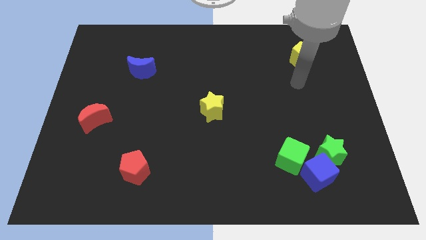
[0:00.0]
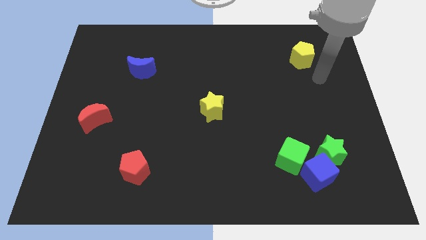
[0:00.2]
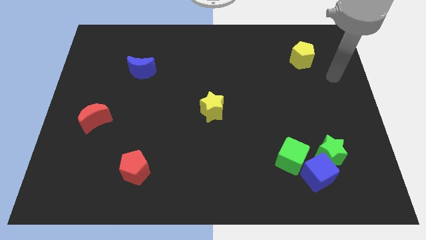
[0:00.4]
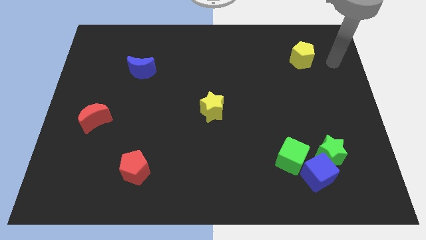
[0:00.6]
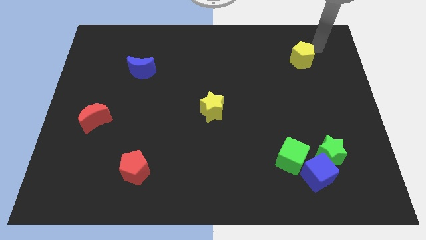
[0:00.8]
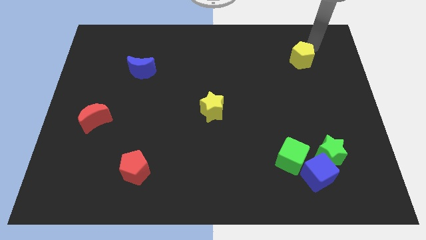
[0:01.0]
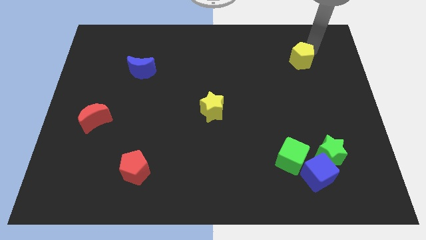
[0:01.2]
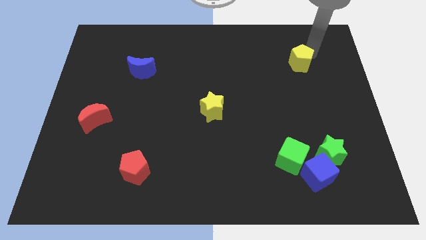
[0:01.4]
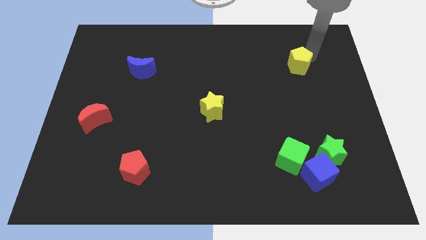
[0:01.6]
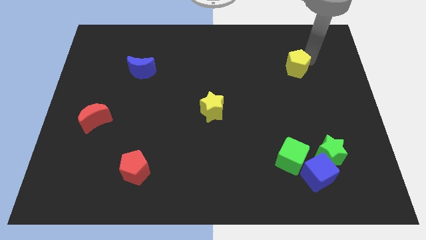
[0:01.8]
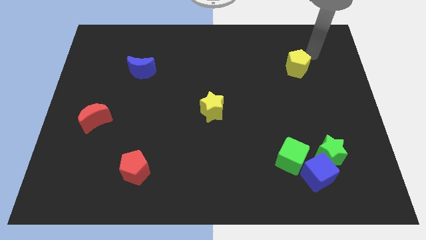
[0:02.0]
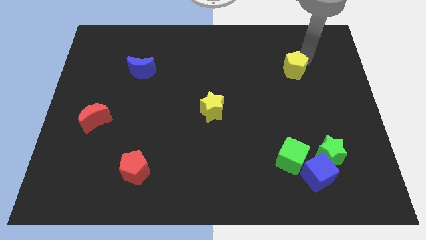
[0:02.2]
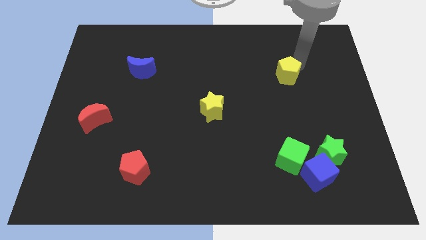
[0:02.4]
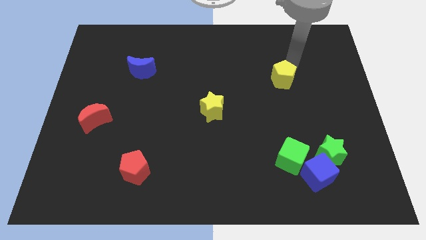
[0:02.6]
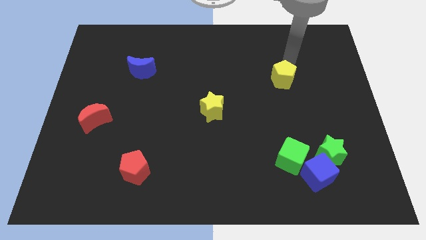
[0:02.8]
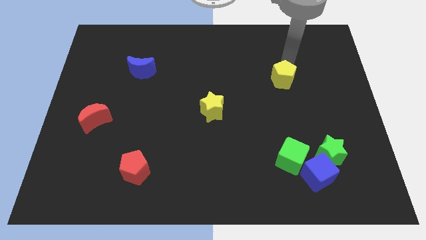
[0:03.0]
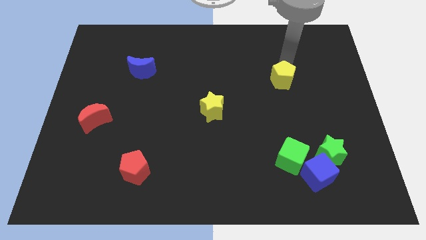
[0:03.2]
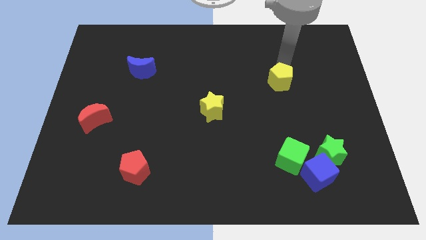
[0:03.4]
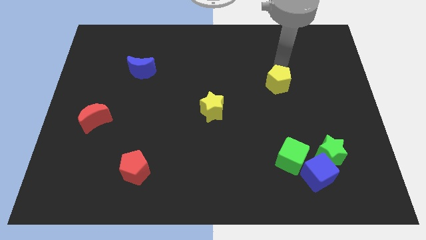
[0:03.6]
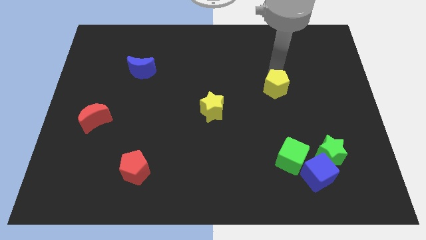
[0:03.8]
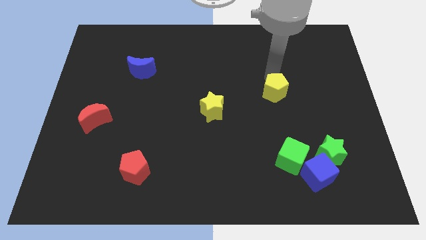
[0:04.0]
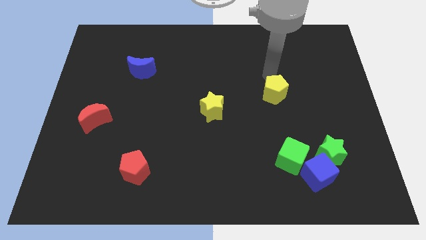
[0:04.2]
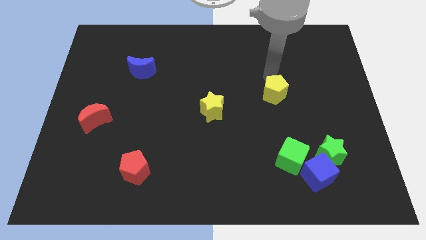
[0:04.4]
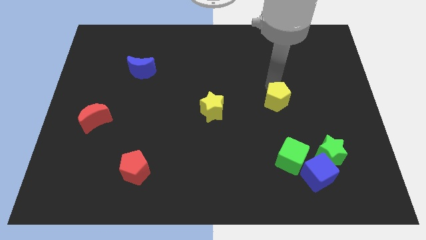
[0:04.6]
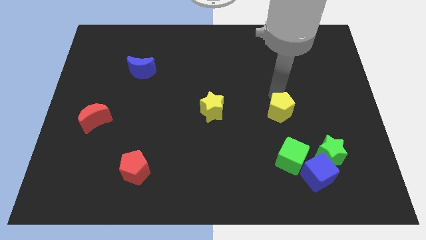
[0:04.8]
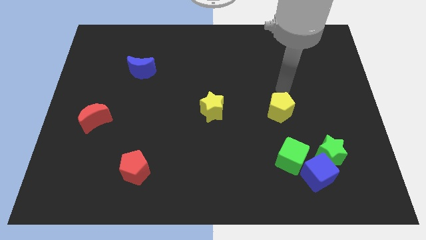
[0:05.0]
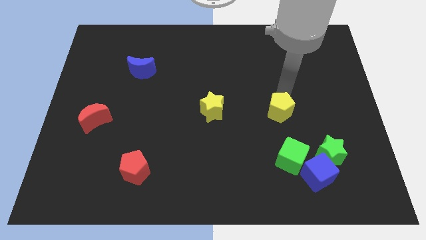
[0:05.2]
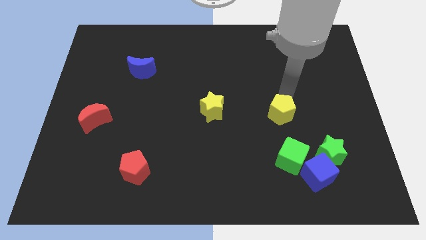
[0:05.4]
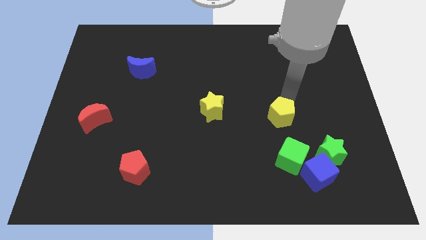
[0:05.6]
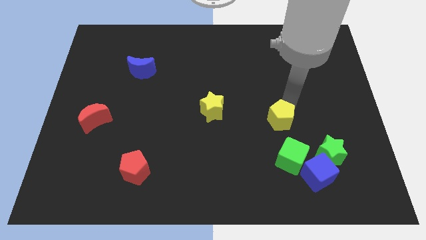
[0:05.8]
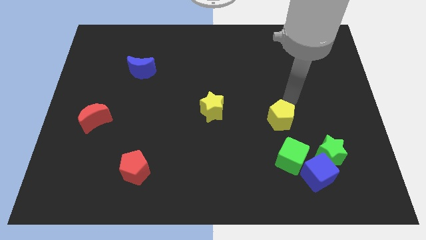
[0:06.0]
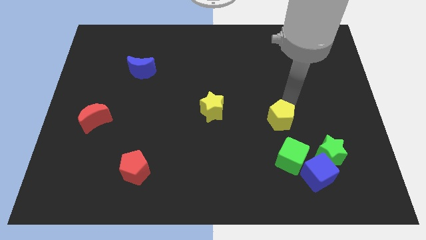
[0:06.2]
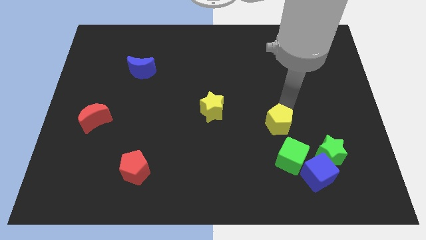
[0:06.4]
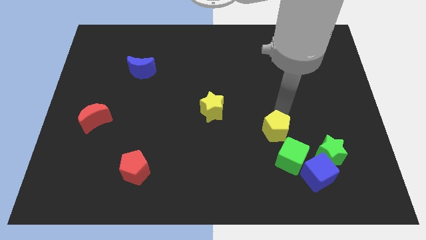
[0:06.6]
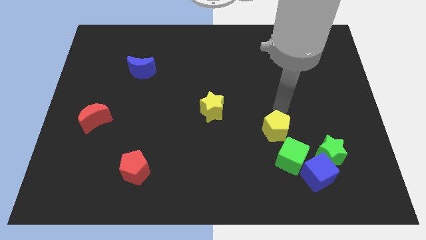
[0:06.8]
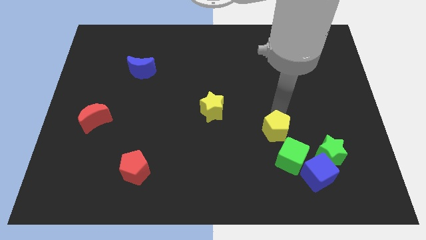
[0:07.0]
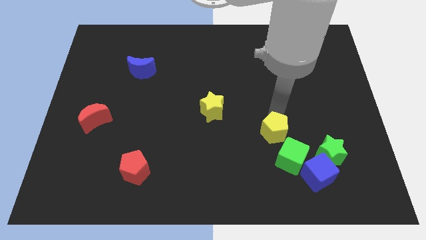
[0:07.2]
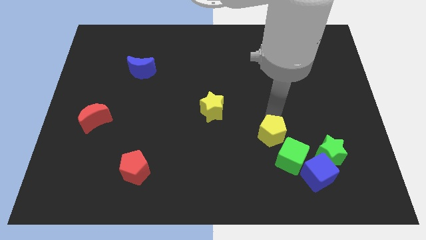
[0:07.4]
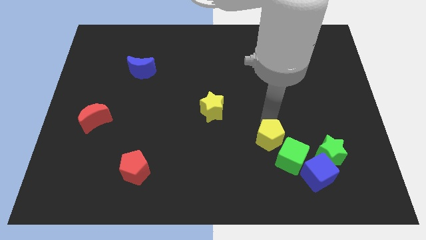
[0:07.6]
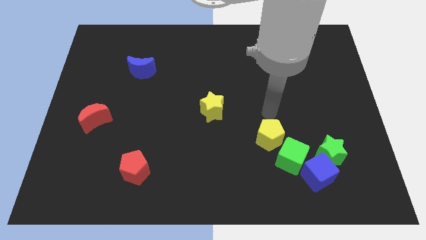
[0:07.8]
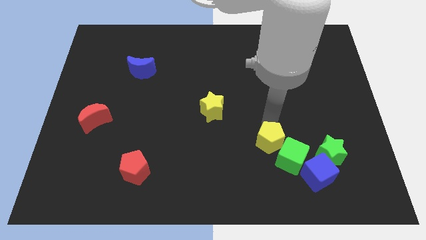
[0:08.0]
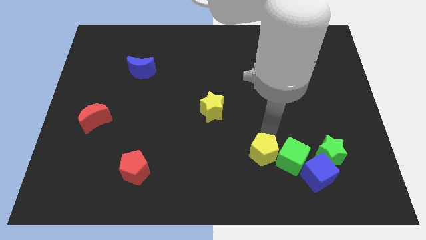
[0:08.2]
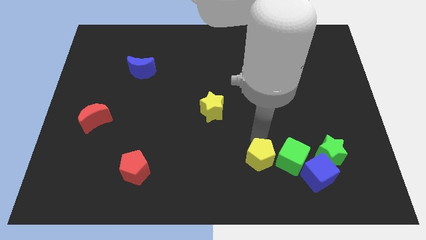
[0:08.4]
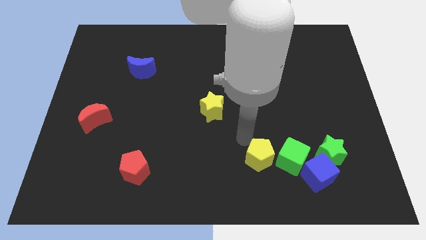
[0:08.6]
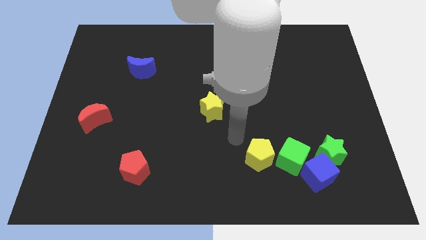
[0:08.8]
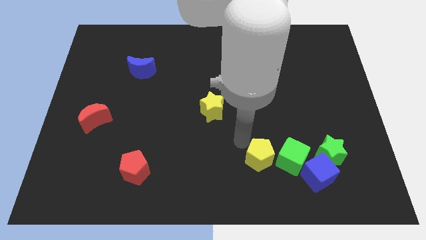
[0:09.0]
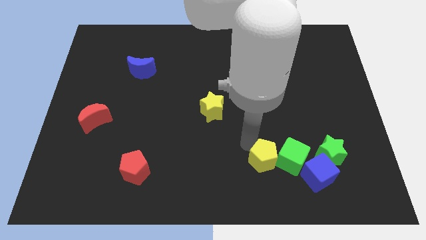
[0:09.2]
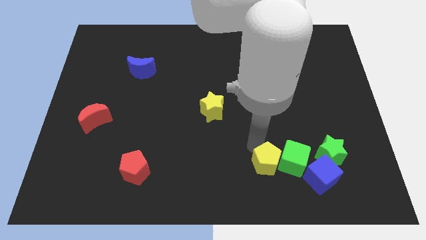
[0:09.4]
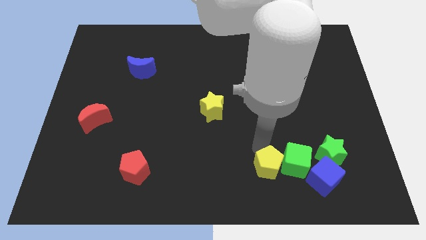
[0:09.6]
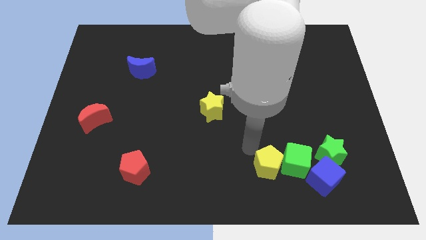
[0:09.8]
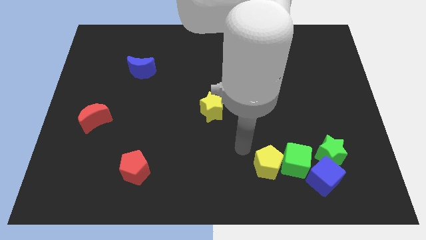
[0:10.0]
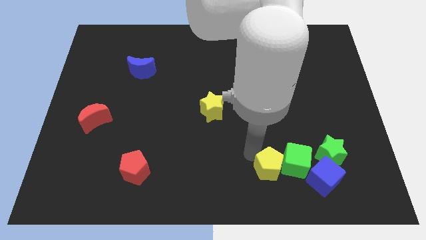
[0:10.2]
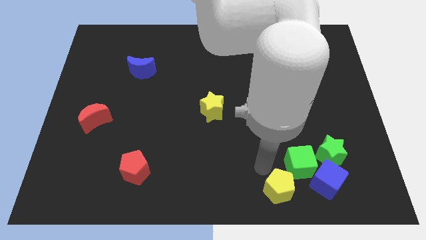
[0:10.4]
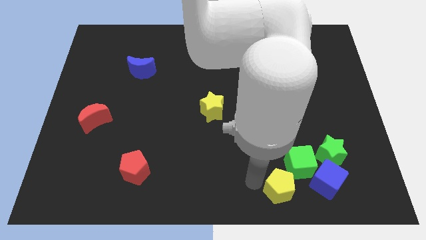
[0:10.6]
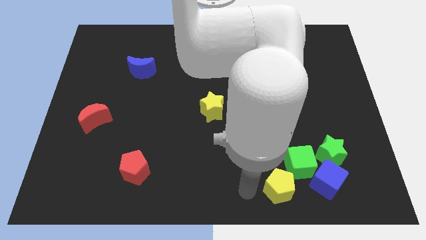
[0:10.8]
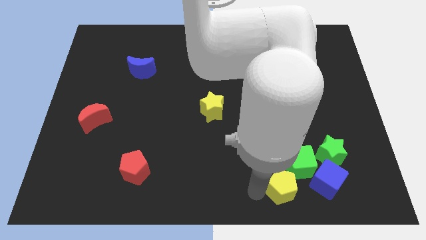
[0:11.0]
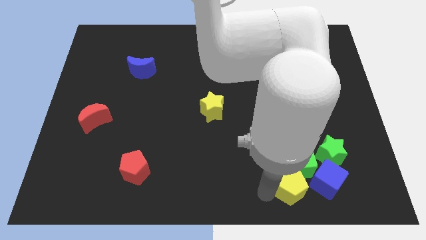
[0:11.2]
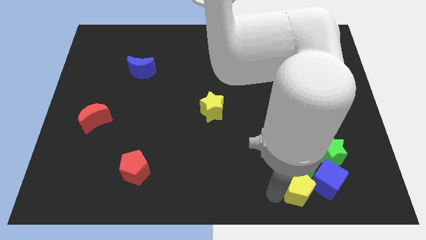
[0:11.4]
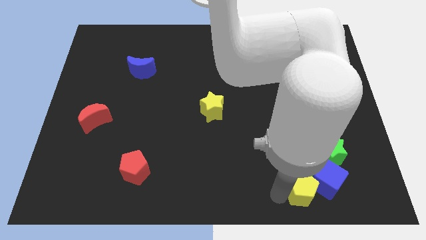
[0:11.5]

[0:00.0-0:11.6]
move the yellow pentagon next to the blue cube

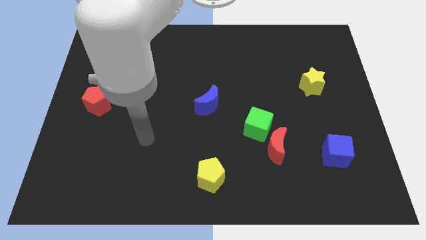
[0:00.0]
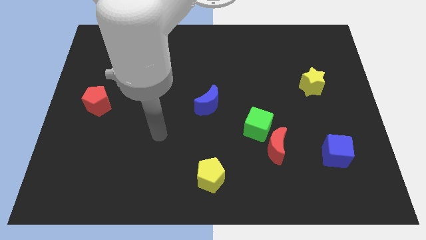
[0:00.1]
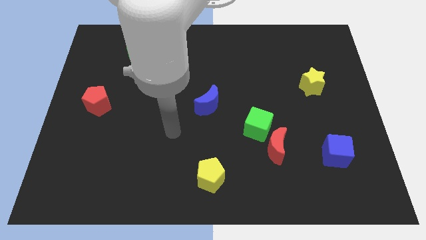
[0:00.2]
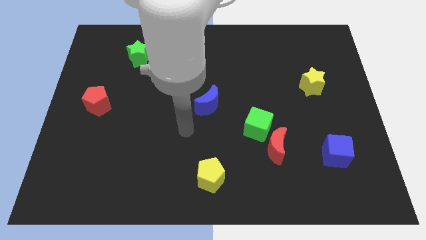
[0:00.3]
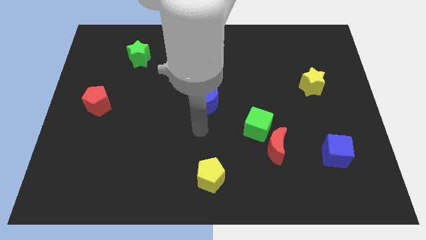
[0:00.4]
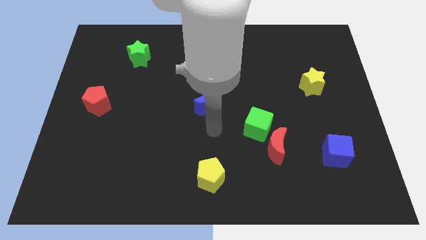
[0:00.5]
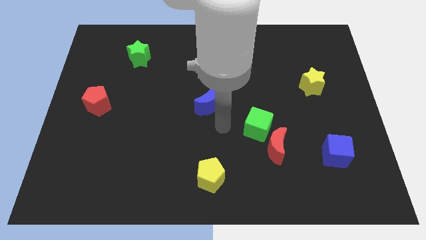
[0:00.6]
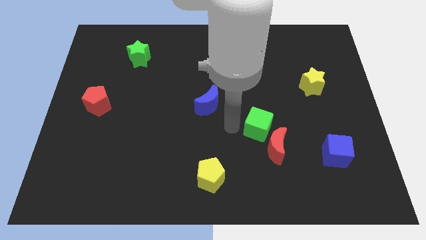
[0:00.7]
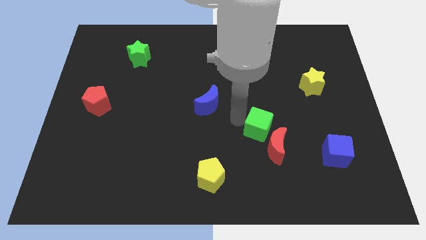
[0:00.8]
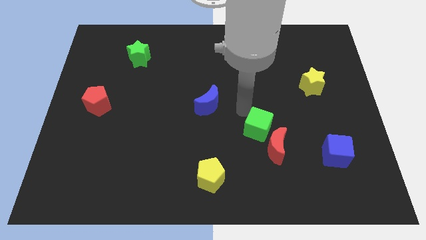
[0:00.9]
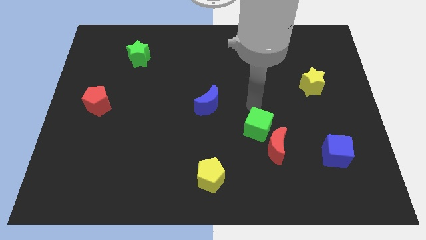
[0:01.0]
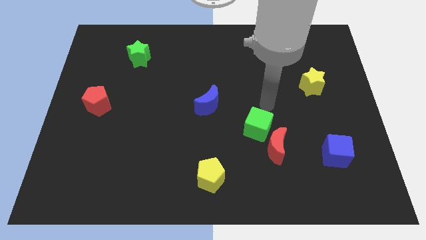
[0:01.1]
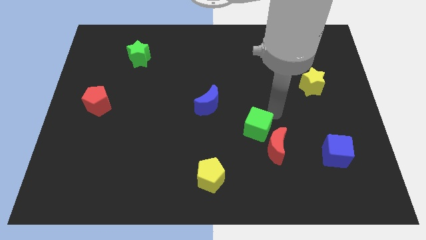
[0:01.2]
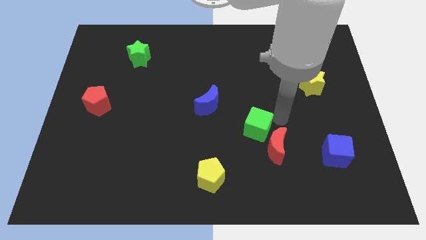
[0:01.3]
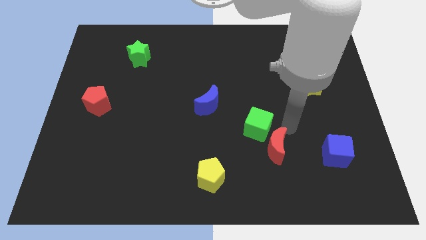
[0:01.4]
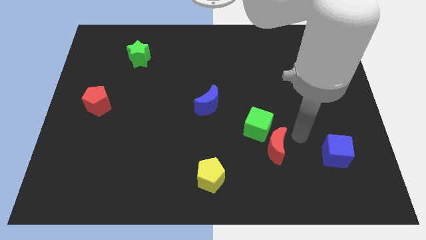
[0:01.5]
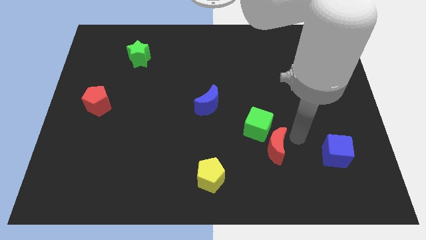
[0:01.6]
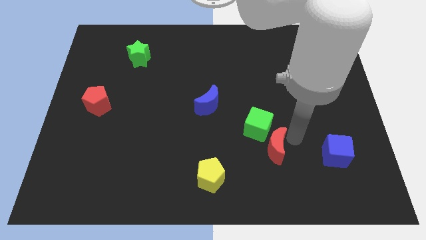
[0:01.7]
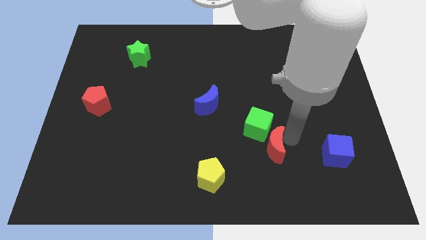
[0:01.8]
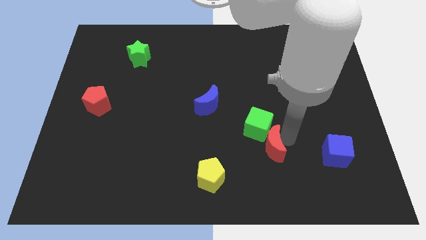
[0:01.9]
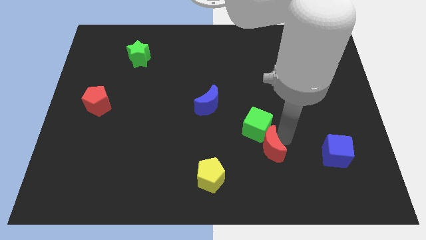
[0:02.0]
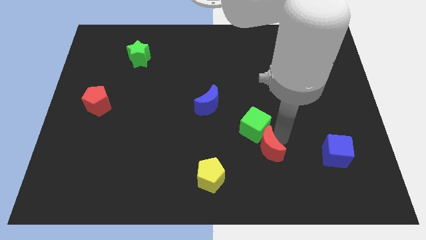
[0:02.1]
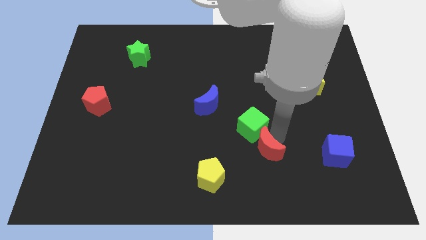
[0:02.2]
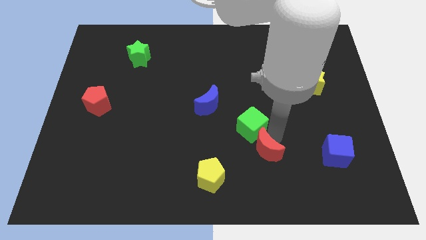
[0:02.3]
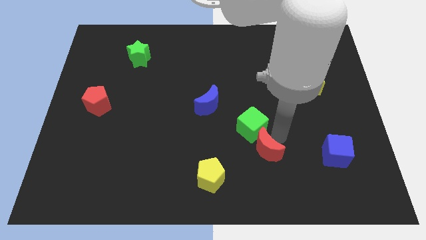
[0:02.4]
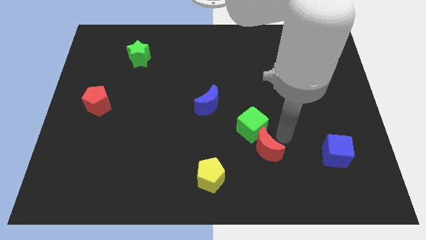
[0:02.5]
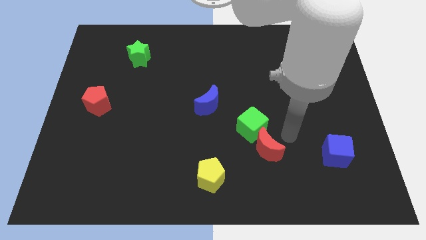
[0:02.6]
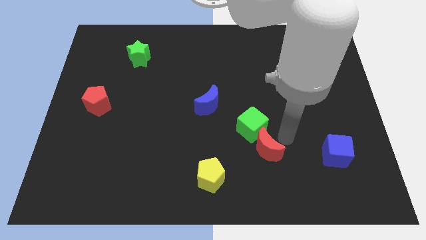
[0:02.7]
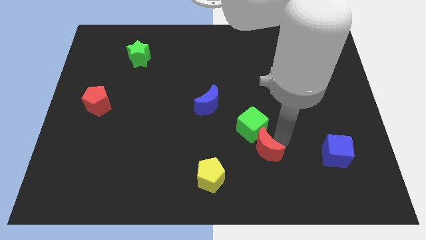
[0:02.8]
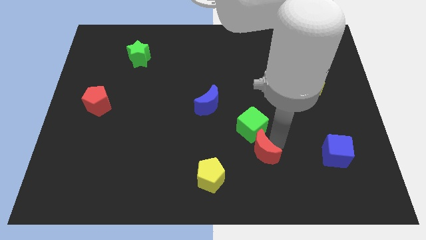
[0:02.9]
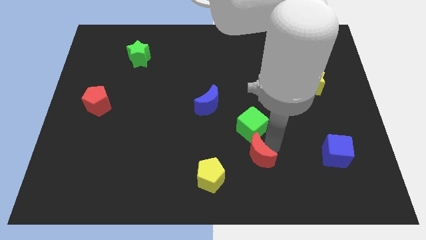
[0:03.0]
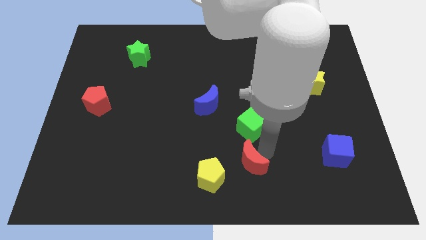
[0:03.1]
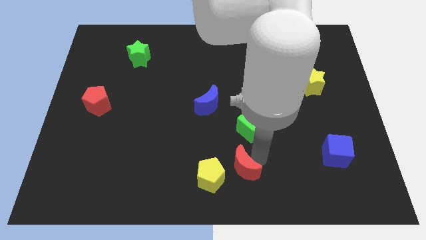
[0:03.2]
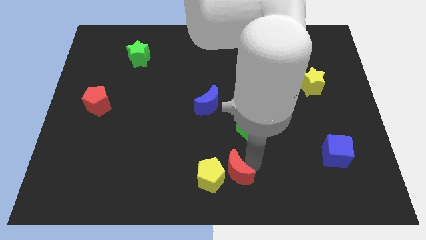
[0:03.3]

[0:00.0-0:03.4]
slide the red moon next to the yellow pentagon
